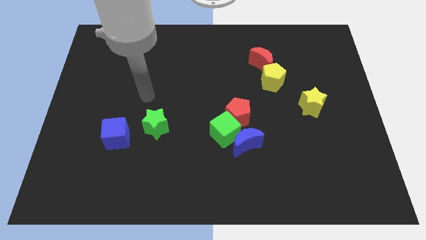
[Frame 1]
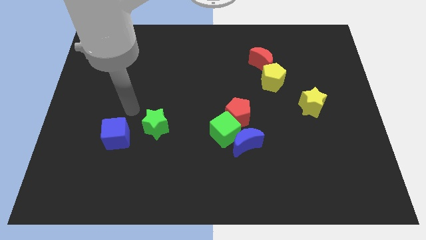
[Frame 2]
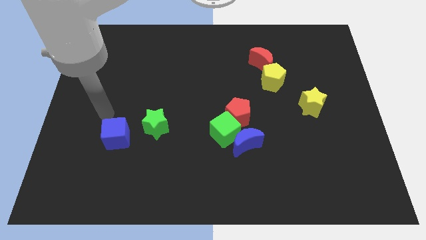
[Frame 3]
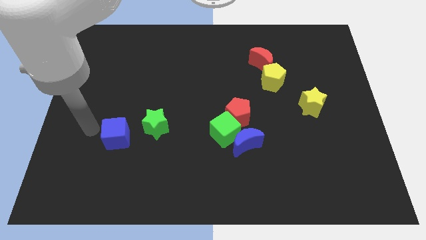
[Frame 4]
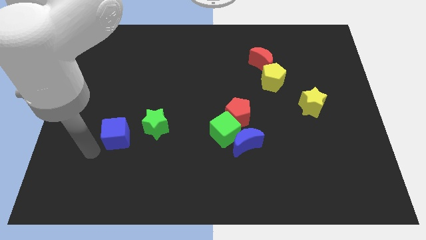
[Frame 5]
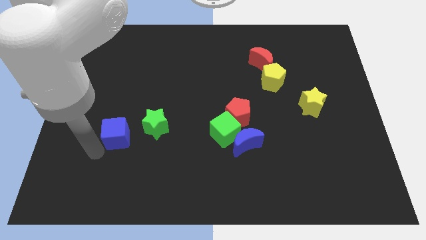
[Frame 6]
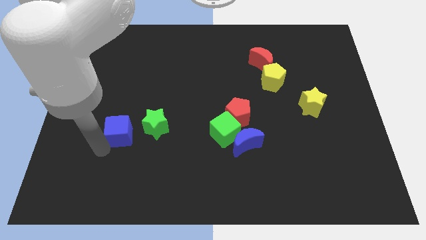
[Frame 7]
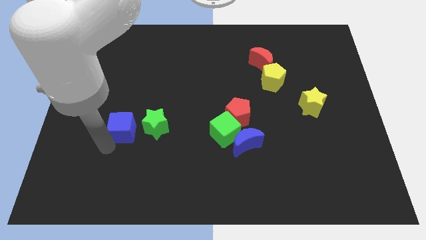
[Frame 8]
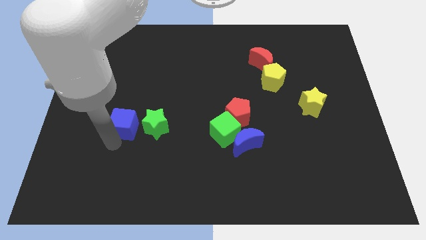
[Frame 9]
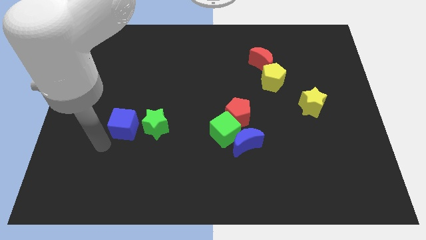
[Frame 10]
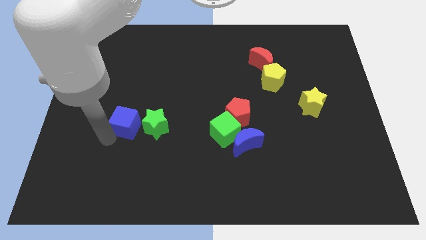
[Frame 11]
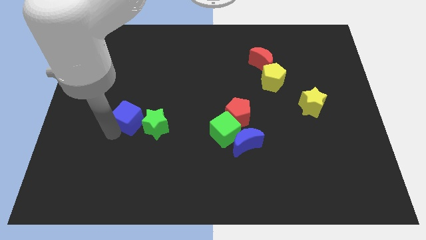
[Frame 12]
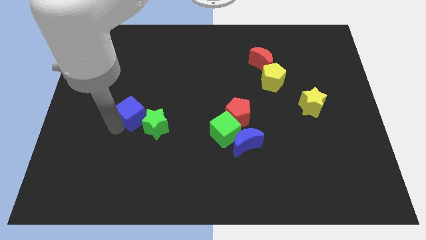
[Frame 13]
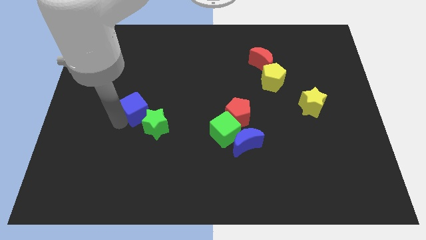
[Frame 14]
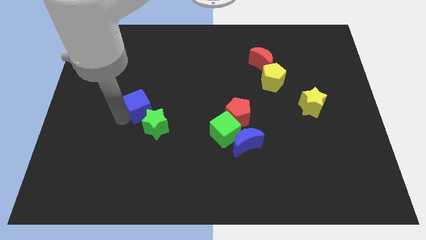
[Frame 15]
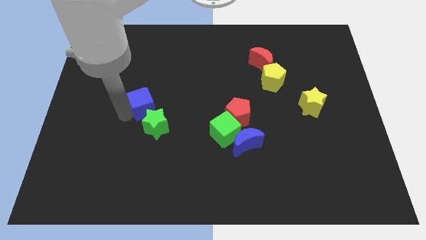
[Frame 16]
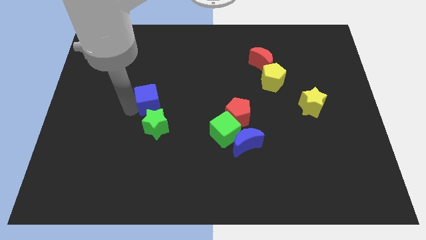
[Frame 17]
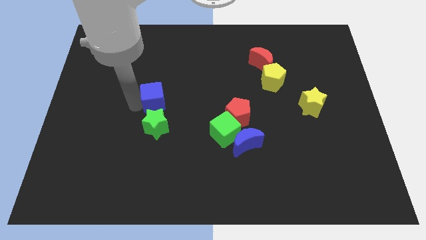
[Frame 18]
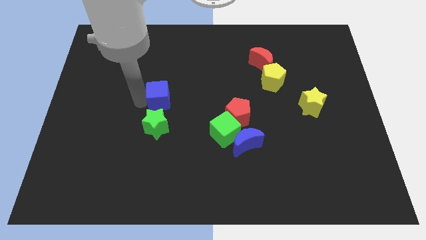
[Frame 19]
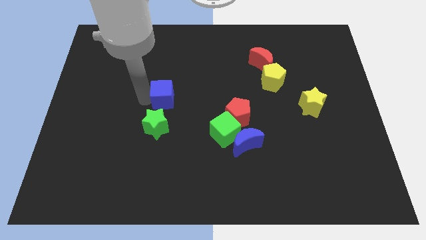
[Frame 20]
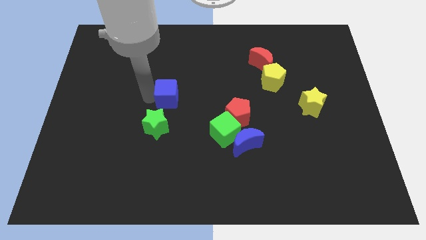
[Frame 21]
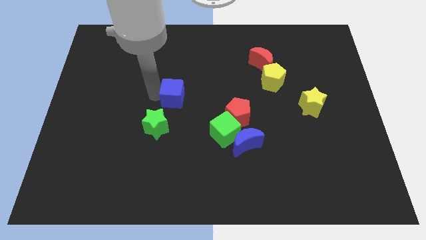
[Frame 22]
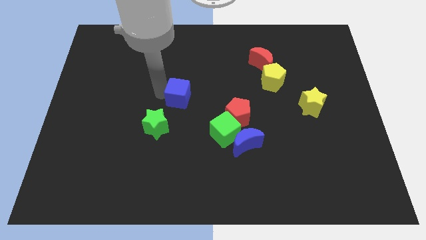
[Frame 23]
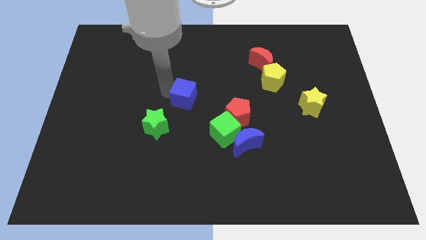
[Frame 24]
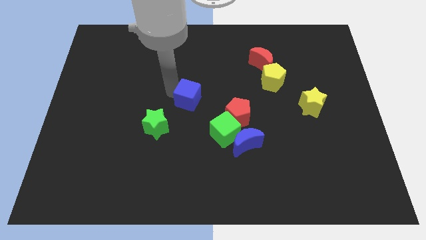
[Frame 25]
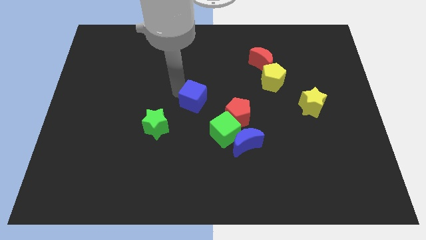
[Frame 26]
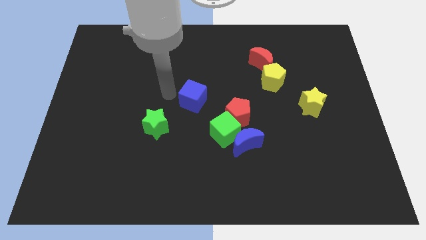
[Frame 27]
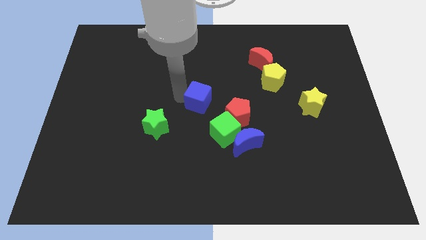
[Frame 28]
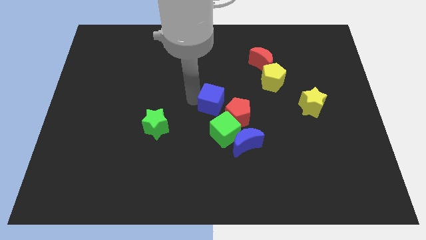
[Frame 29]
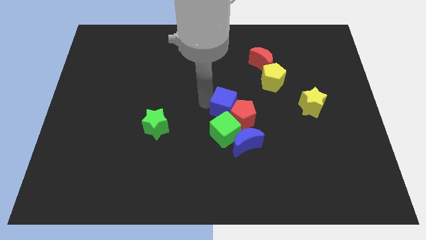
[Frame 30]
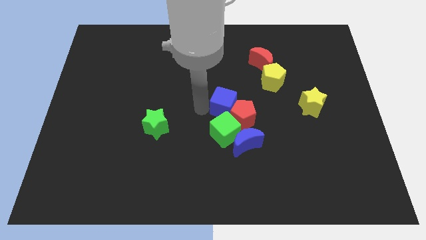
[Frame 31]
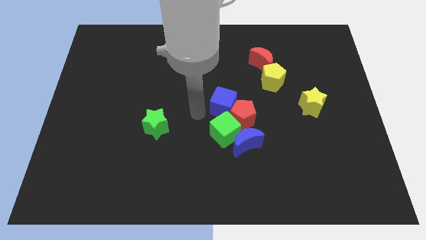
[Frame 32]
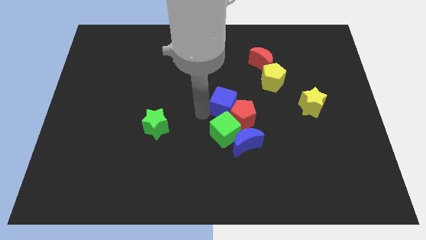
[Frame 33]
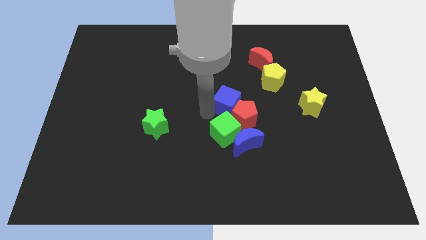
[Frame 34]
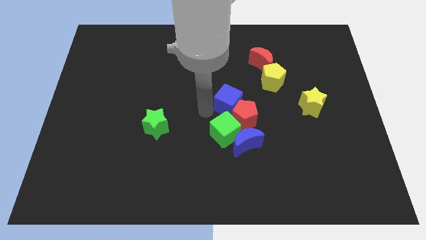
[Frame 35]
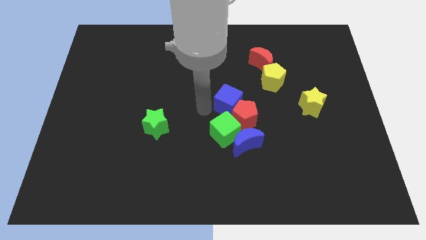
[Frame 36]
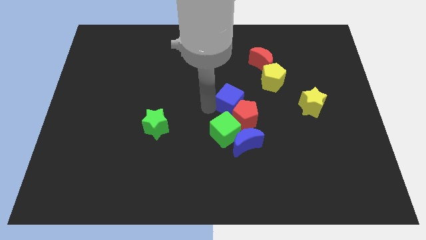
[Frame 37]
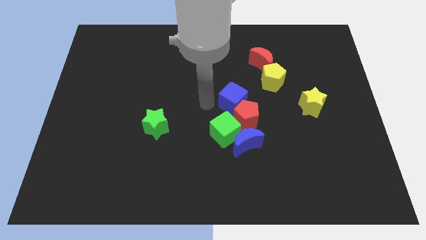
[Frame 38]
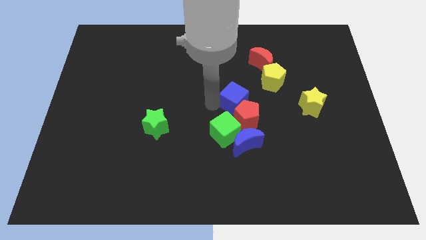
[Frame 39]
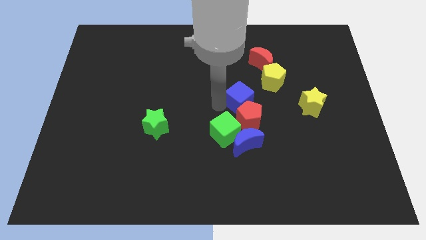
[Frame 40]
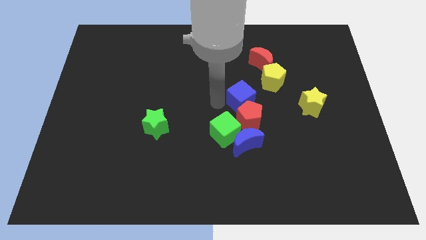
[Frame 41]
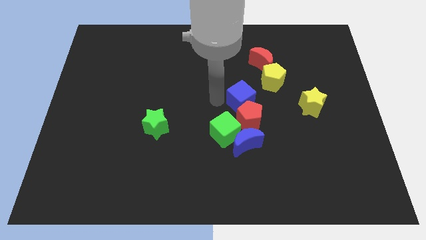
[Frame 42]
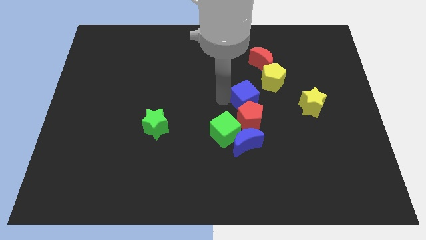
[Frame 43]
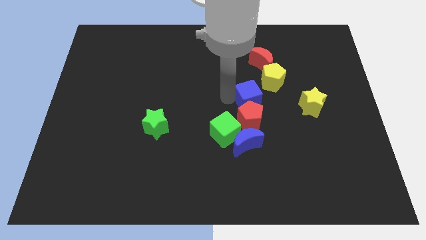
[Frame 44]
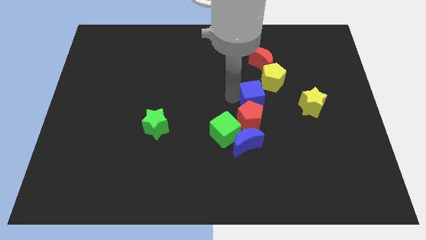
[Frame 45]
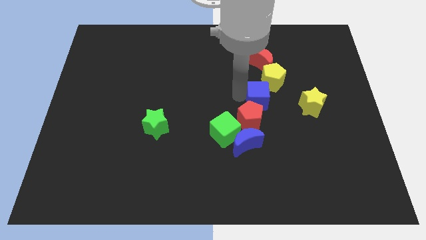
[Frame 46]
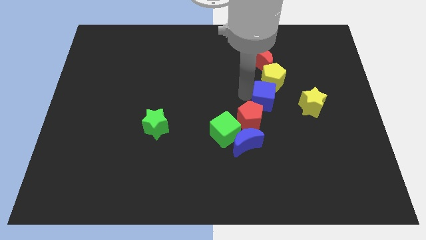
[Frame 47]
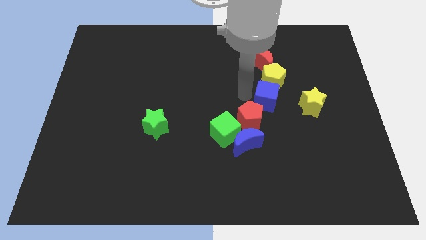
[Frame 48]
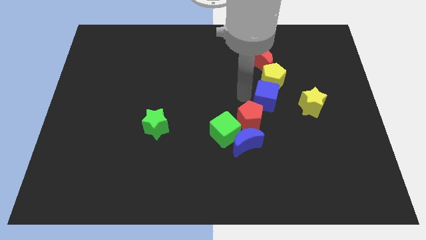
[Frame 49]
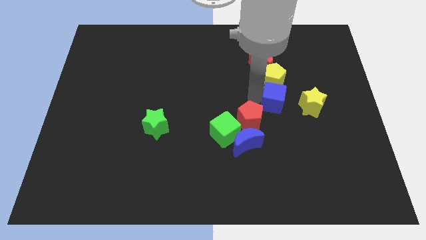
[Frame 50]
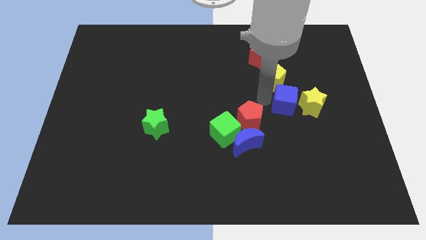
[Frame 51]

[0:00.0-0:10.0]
slide the blue cube to the yellow star

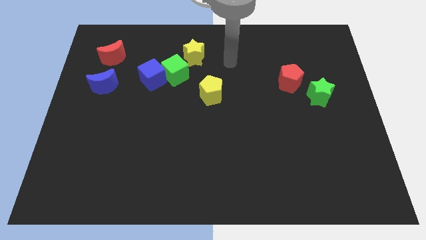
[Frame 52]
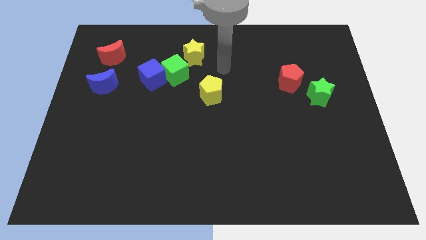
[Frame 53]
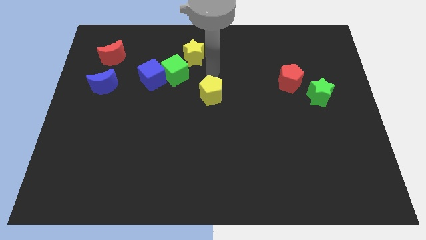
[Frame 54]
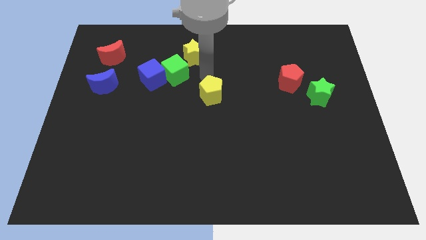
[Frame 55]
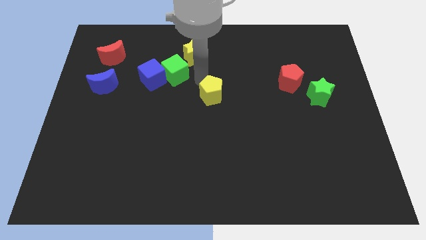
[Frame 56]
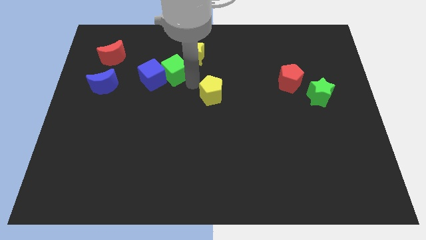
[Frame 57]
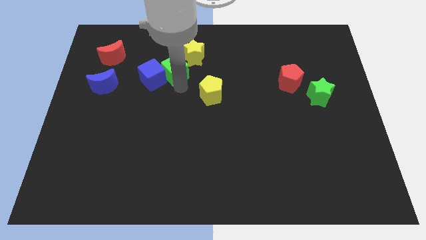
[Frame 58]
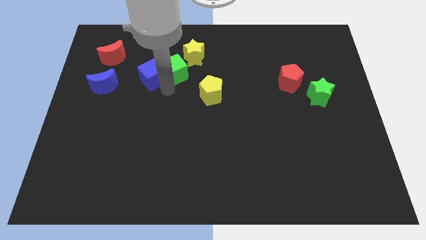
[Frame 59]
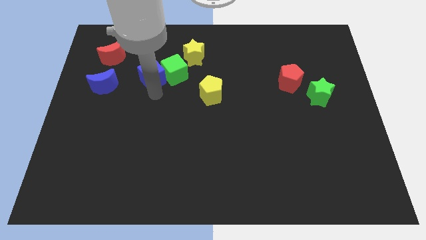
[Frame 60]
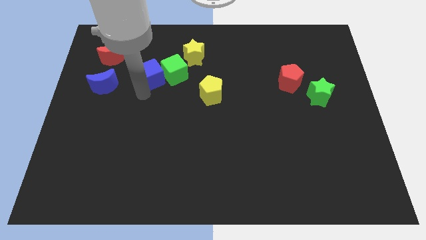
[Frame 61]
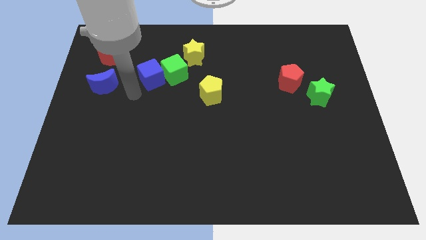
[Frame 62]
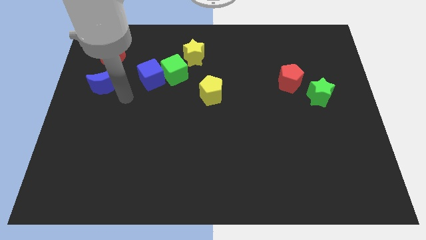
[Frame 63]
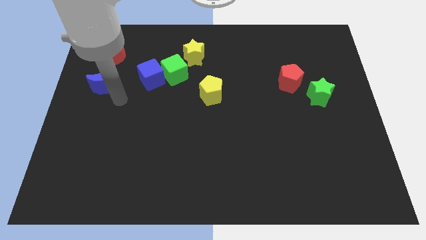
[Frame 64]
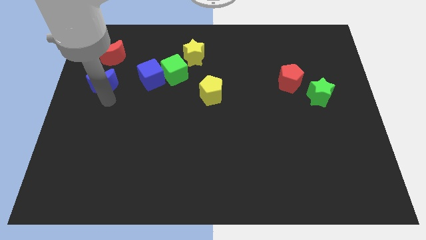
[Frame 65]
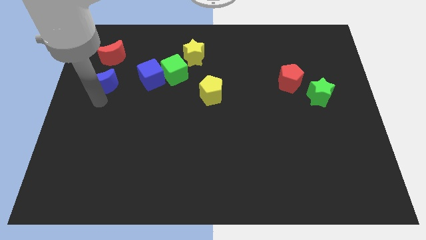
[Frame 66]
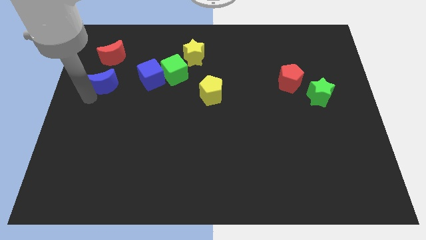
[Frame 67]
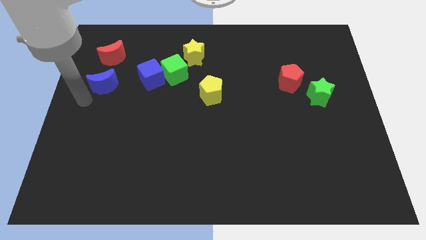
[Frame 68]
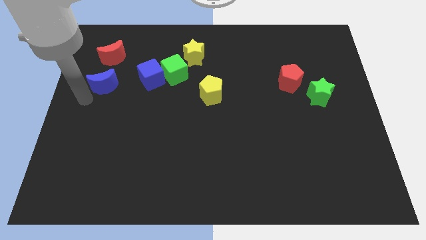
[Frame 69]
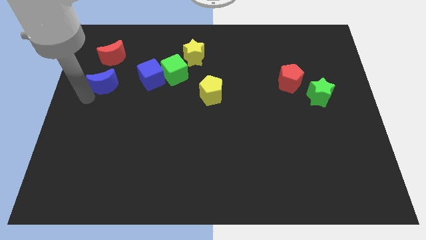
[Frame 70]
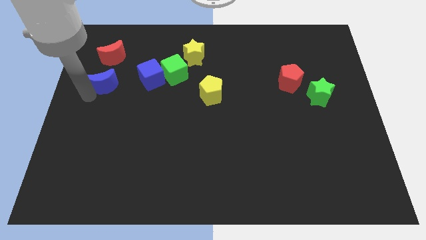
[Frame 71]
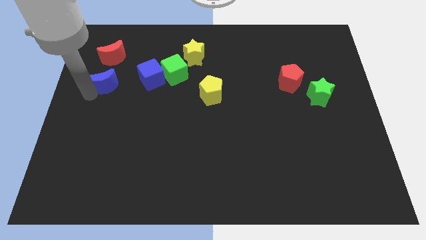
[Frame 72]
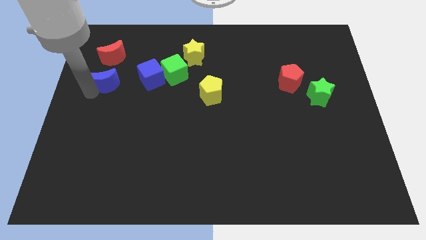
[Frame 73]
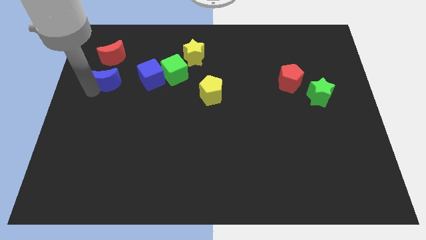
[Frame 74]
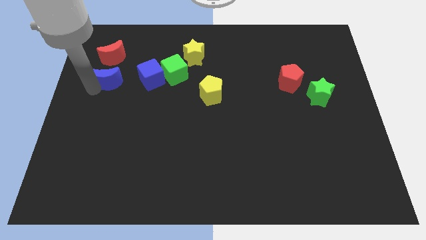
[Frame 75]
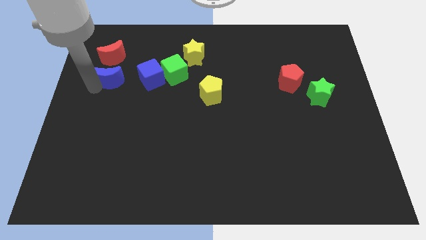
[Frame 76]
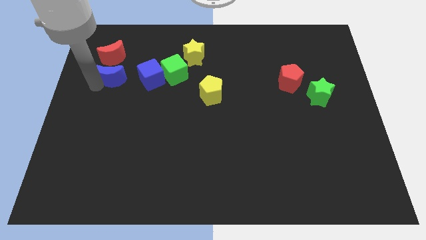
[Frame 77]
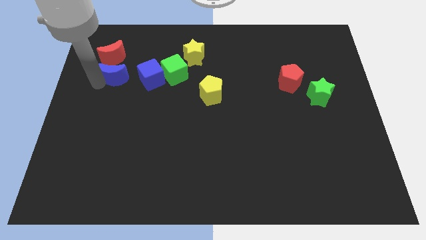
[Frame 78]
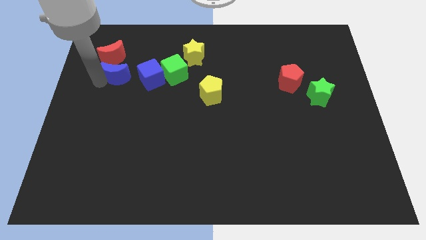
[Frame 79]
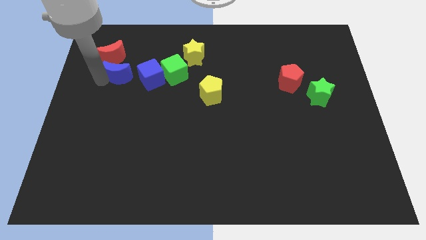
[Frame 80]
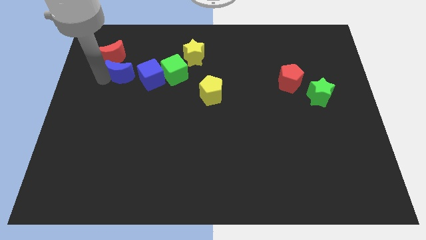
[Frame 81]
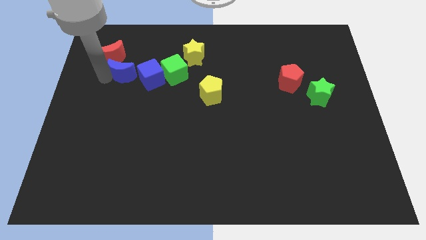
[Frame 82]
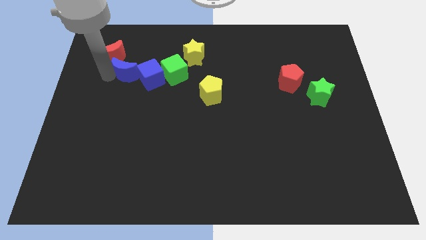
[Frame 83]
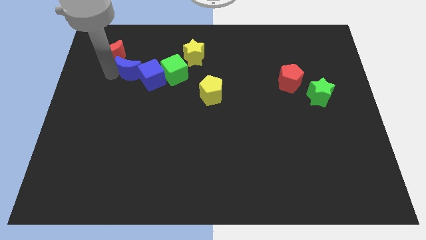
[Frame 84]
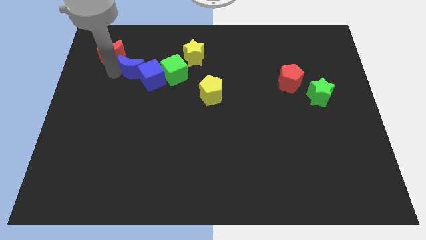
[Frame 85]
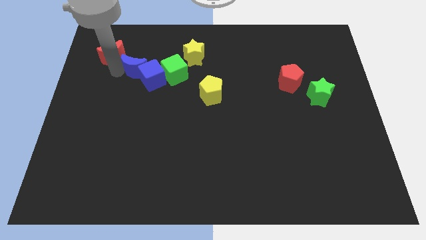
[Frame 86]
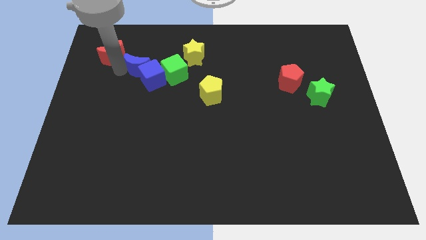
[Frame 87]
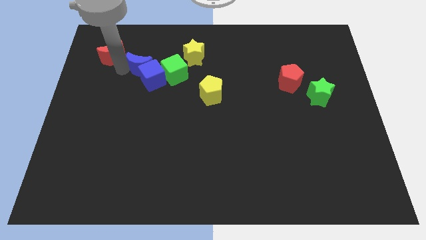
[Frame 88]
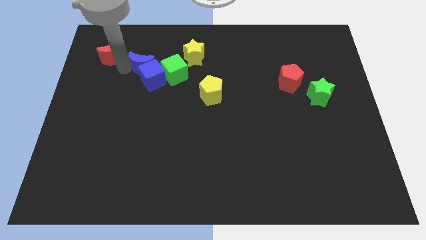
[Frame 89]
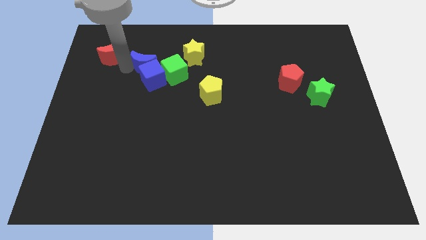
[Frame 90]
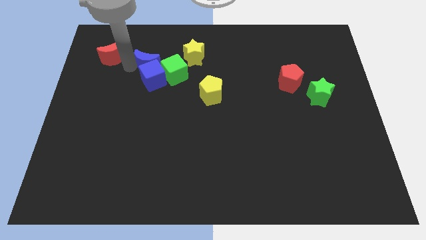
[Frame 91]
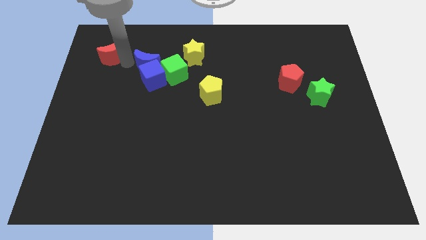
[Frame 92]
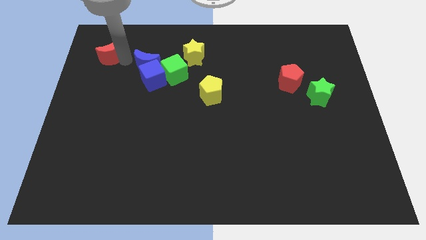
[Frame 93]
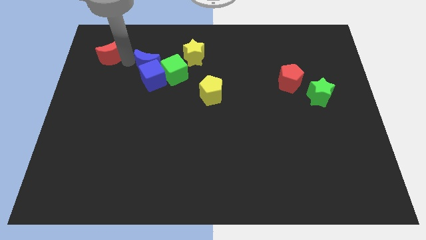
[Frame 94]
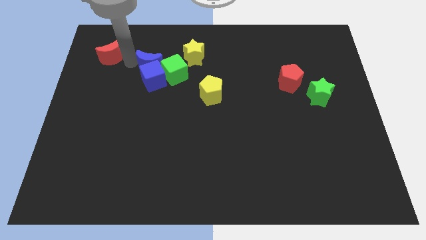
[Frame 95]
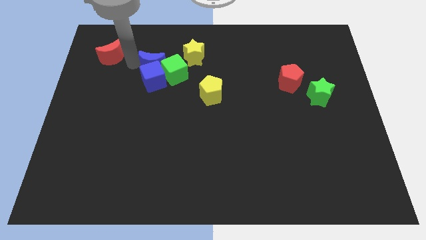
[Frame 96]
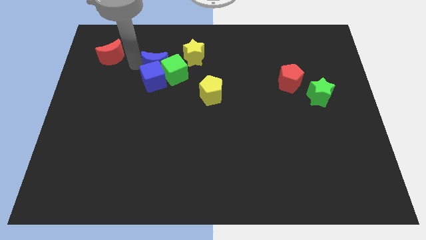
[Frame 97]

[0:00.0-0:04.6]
slide the blue moon to the green cube
